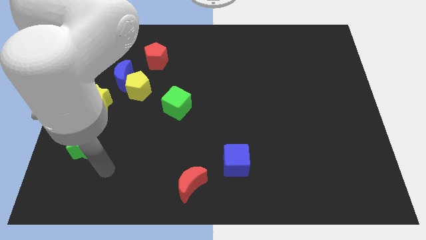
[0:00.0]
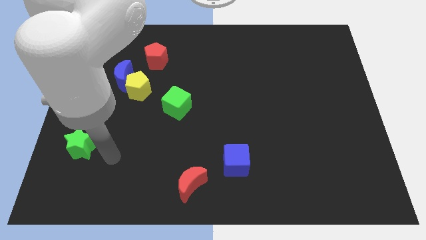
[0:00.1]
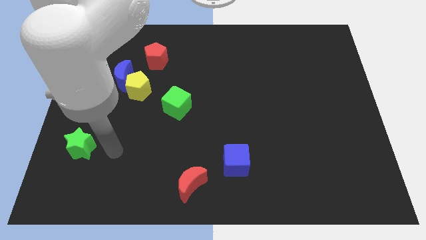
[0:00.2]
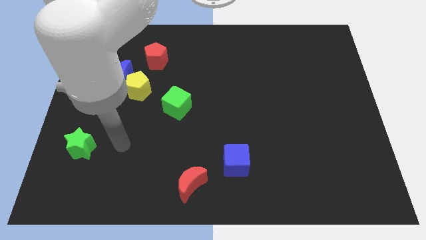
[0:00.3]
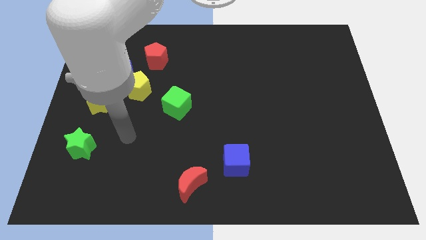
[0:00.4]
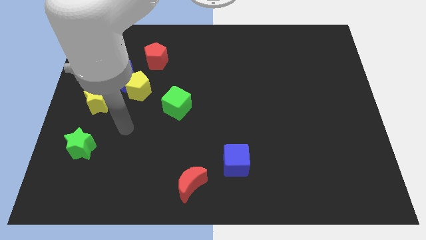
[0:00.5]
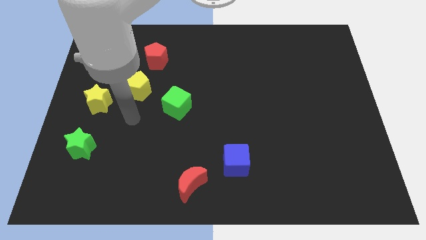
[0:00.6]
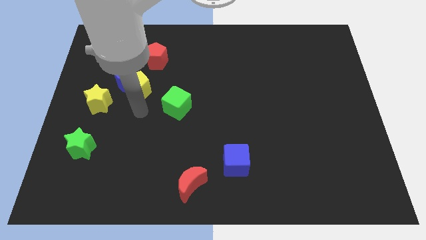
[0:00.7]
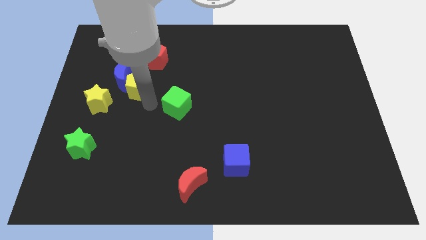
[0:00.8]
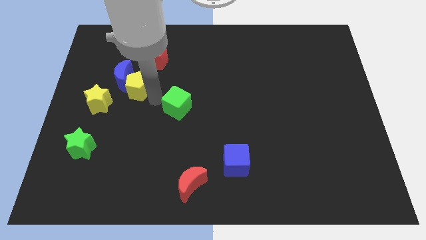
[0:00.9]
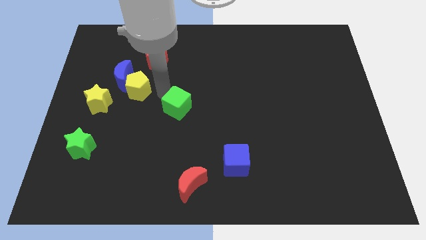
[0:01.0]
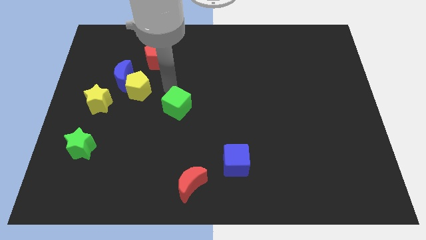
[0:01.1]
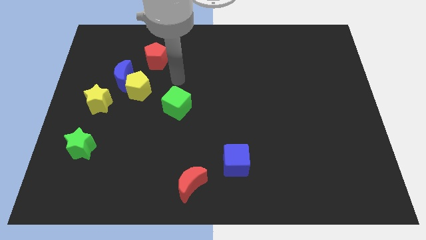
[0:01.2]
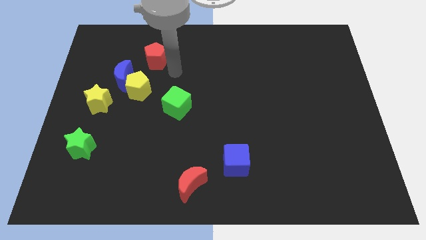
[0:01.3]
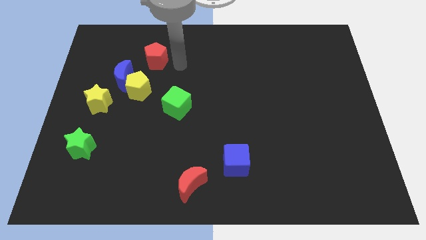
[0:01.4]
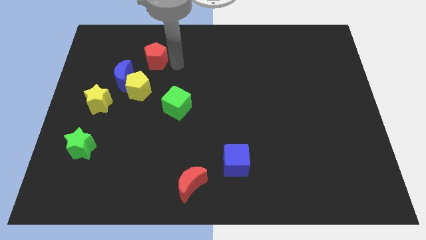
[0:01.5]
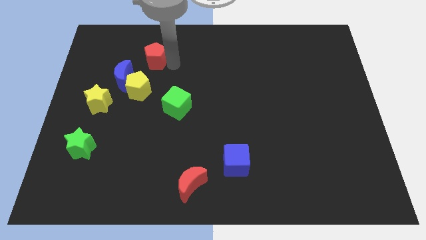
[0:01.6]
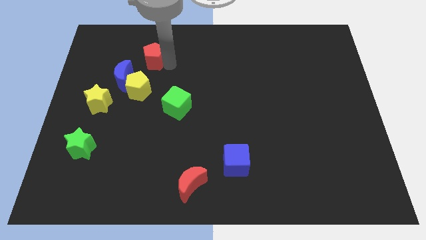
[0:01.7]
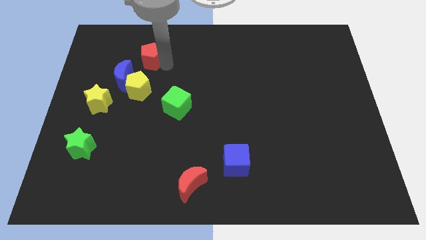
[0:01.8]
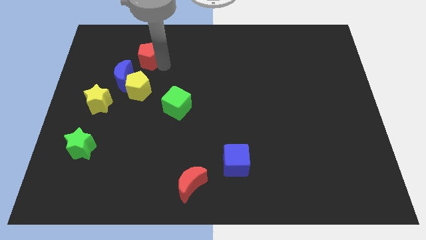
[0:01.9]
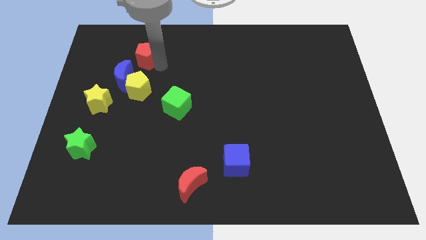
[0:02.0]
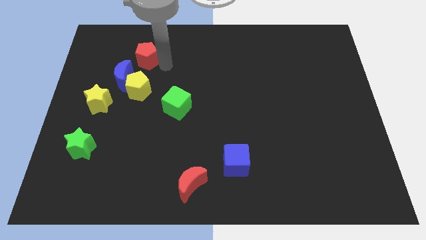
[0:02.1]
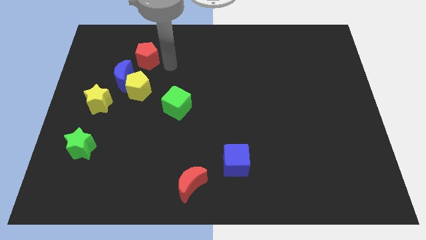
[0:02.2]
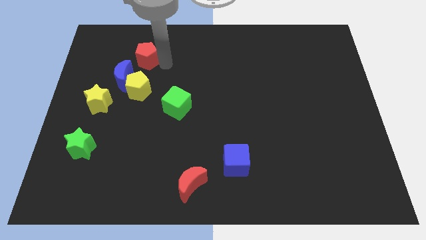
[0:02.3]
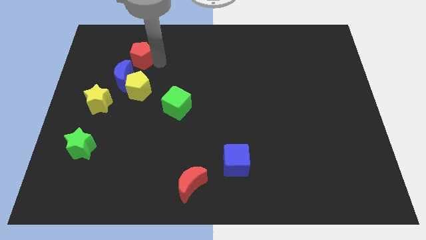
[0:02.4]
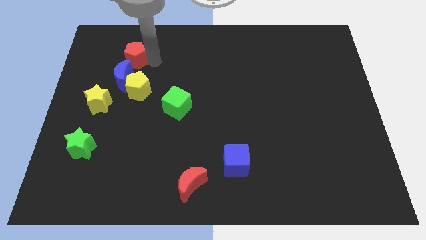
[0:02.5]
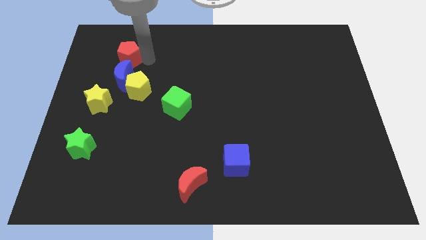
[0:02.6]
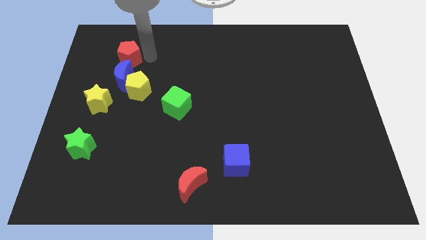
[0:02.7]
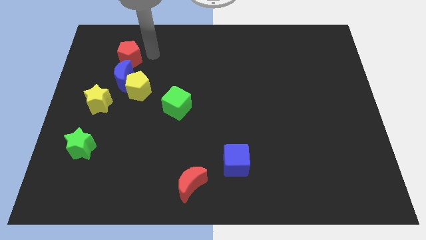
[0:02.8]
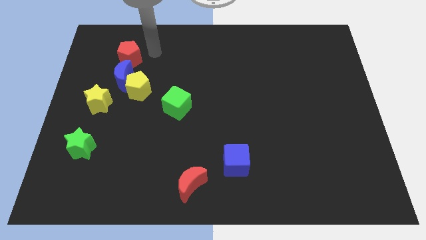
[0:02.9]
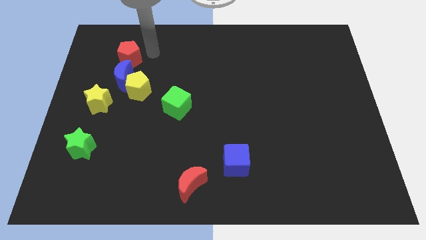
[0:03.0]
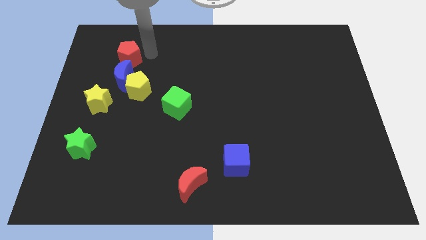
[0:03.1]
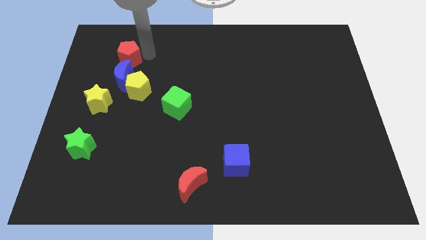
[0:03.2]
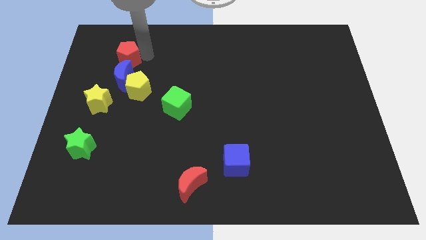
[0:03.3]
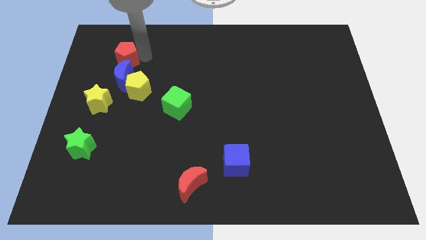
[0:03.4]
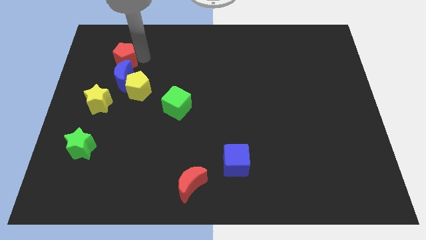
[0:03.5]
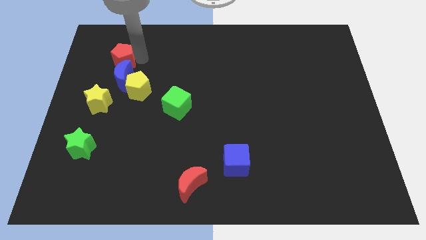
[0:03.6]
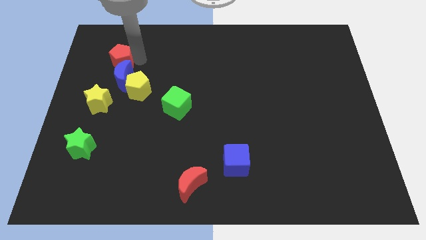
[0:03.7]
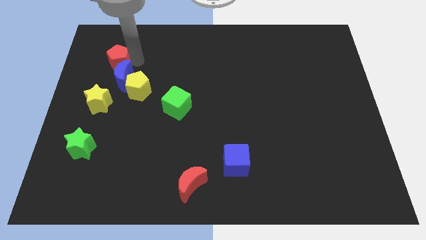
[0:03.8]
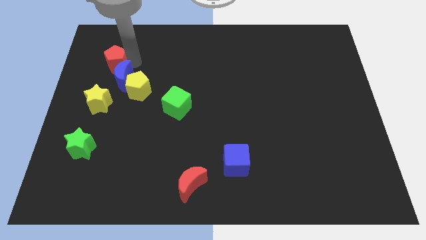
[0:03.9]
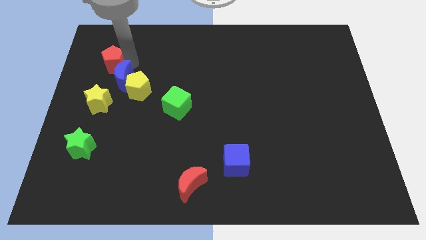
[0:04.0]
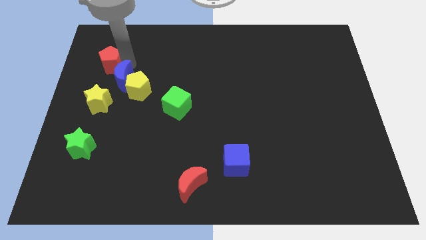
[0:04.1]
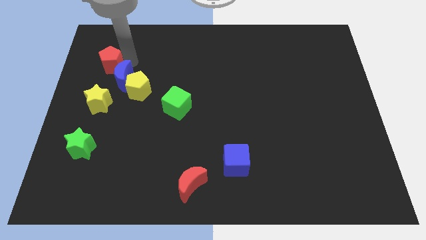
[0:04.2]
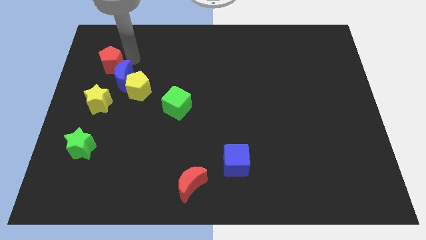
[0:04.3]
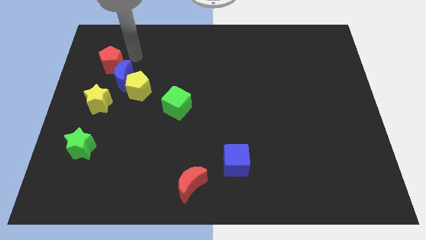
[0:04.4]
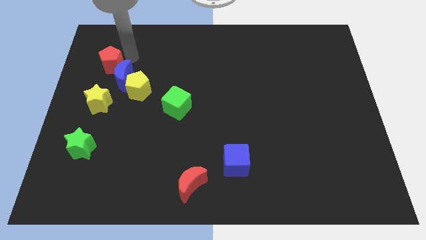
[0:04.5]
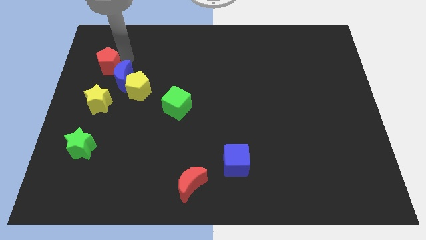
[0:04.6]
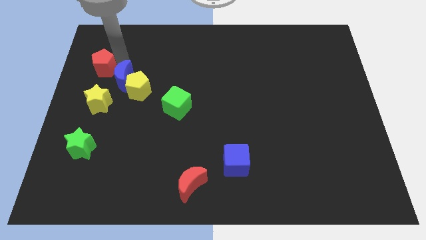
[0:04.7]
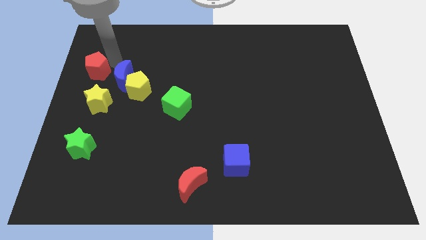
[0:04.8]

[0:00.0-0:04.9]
put the red pentagon to the left side

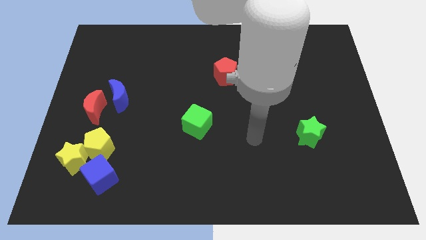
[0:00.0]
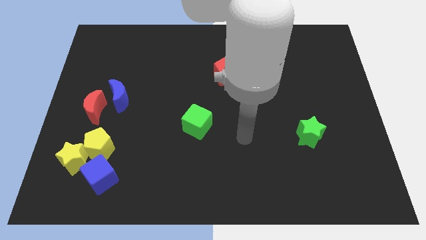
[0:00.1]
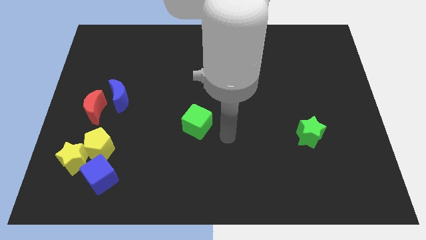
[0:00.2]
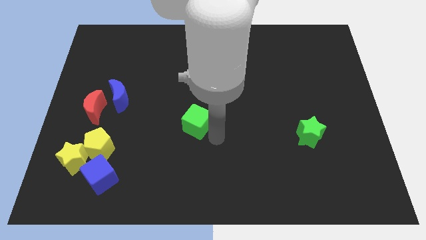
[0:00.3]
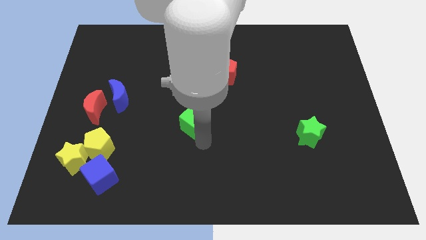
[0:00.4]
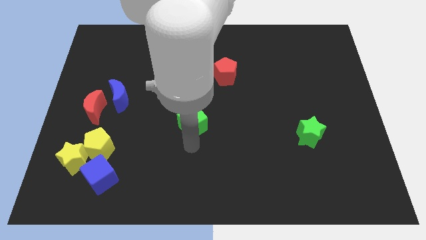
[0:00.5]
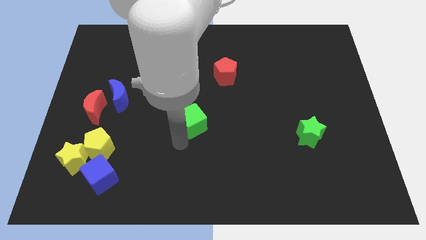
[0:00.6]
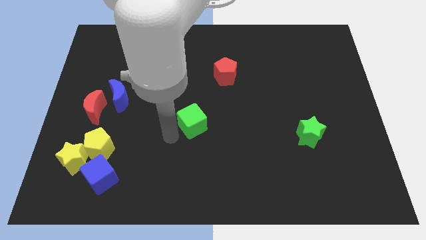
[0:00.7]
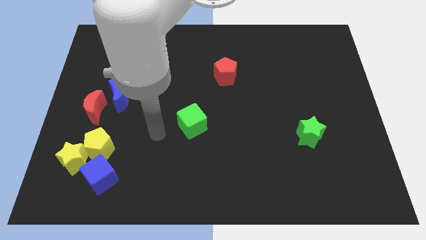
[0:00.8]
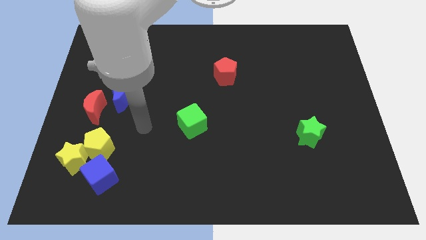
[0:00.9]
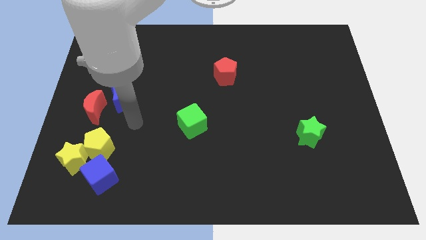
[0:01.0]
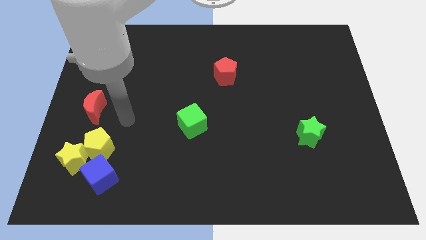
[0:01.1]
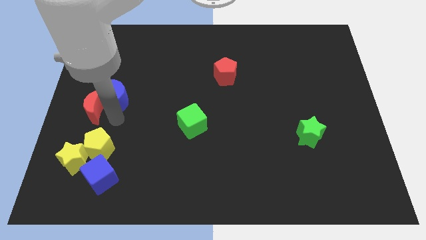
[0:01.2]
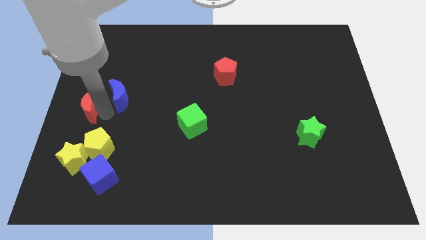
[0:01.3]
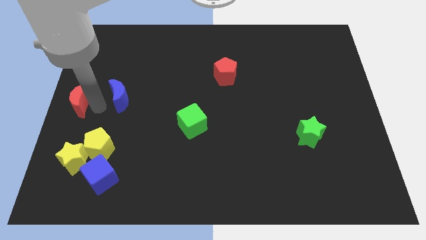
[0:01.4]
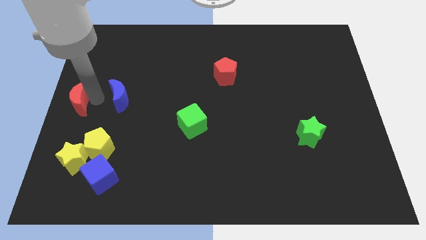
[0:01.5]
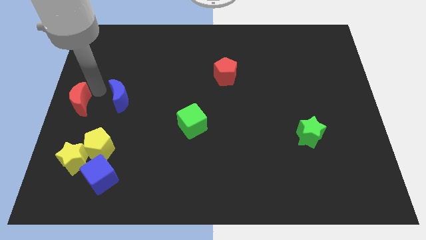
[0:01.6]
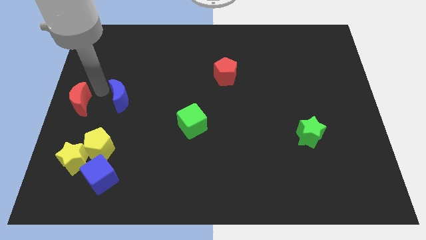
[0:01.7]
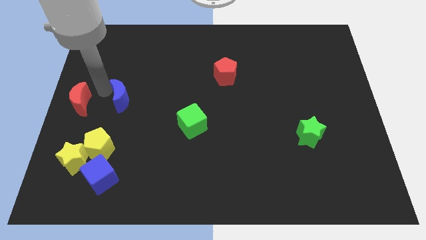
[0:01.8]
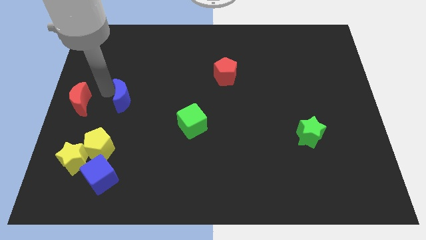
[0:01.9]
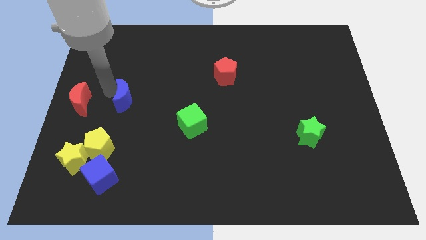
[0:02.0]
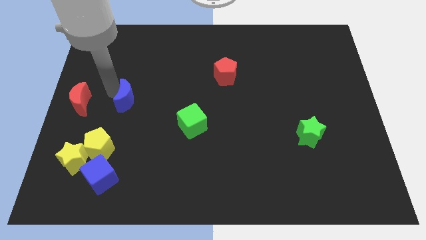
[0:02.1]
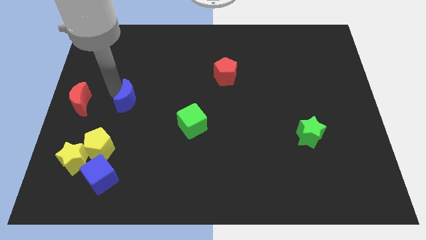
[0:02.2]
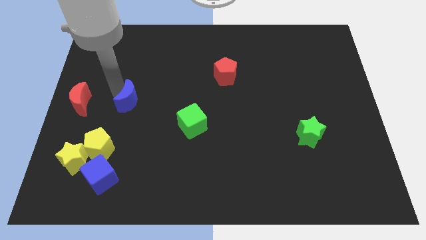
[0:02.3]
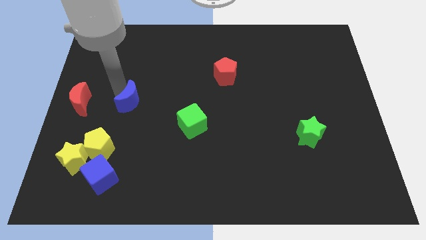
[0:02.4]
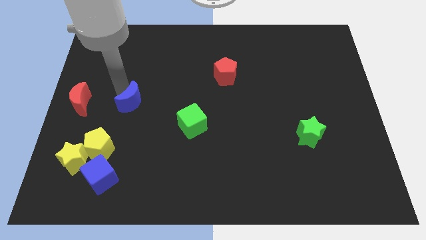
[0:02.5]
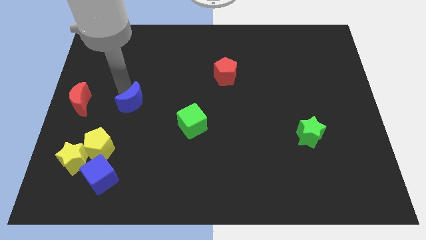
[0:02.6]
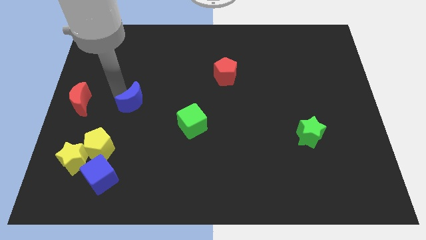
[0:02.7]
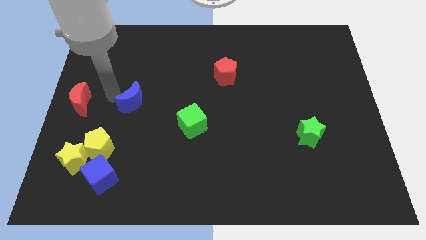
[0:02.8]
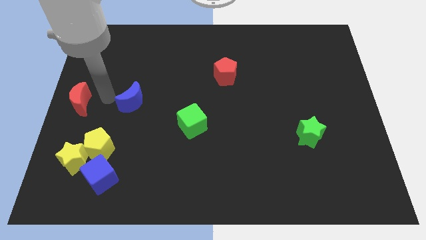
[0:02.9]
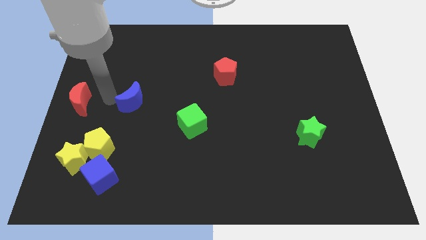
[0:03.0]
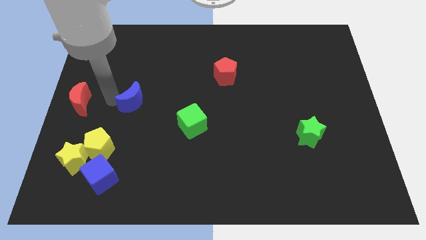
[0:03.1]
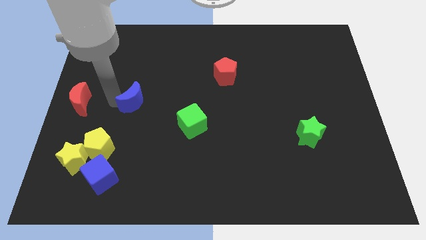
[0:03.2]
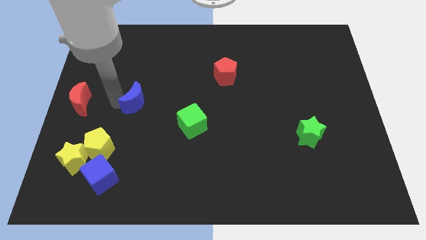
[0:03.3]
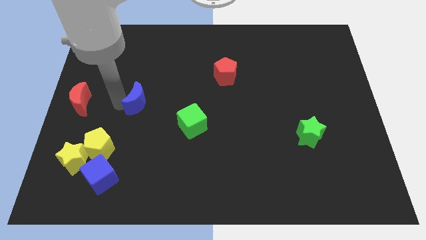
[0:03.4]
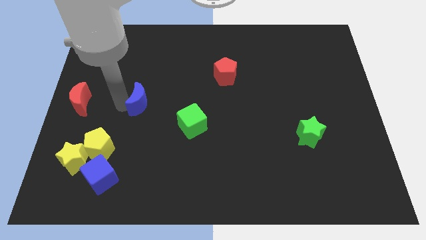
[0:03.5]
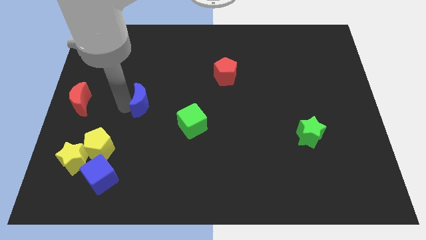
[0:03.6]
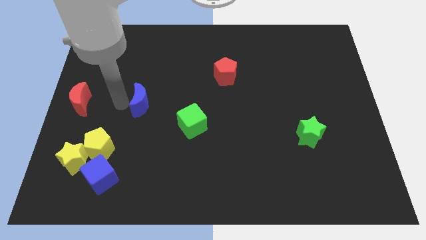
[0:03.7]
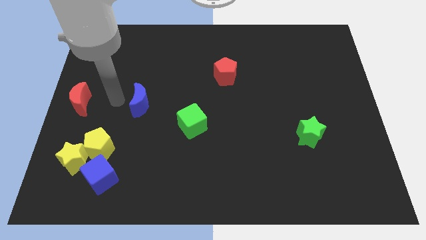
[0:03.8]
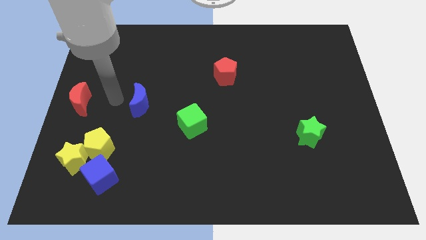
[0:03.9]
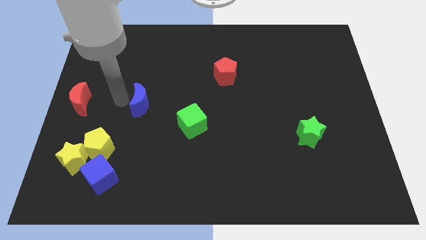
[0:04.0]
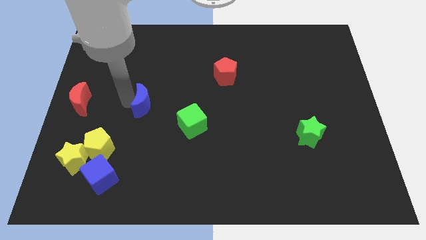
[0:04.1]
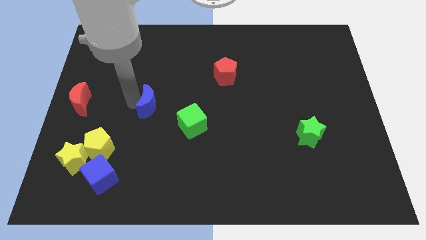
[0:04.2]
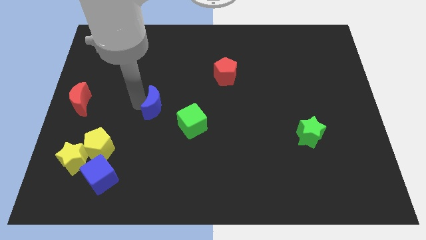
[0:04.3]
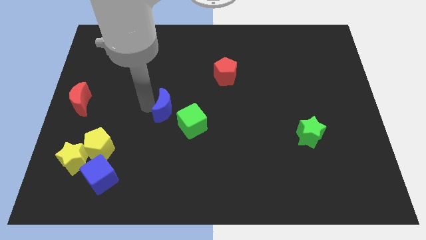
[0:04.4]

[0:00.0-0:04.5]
put the blue moon to the center
